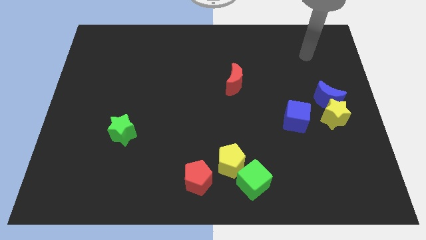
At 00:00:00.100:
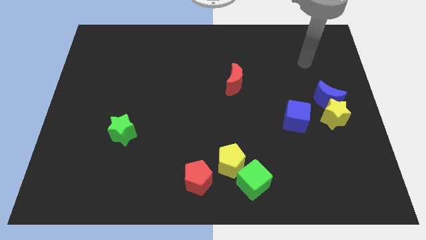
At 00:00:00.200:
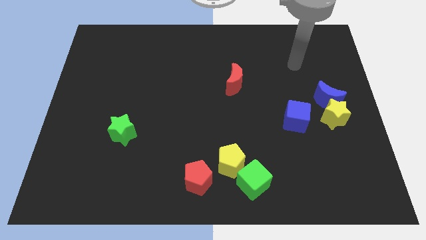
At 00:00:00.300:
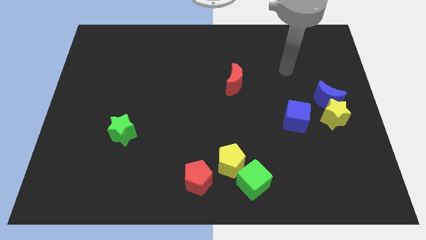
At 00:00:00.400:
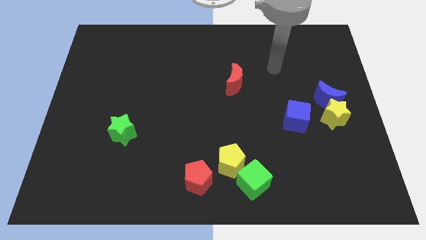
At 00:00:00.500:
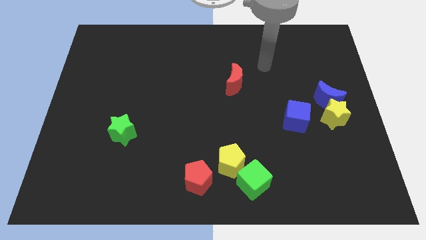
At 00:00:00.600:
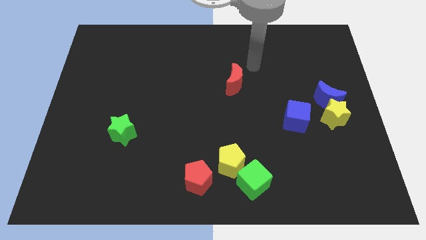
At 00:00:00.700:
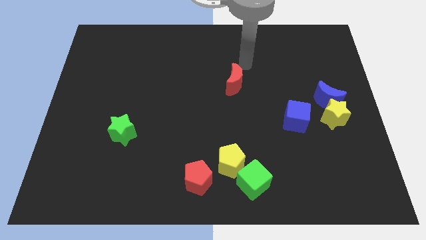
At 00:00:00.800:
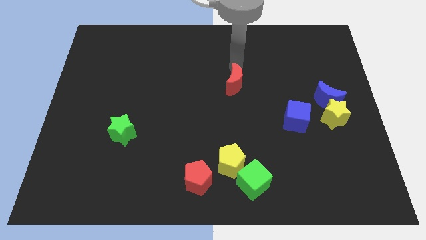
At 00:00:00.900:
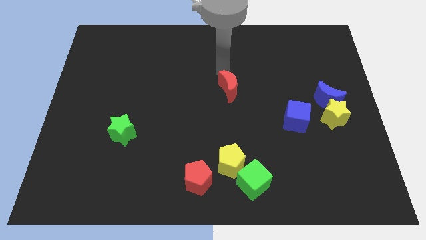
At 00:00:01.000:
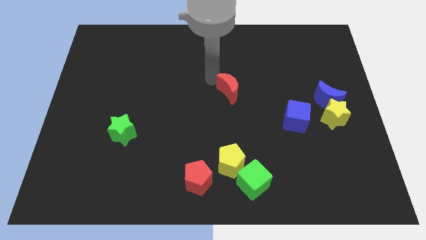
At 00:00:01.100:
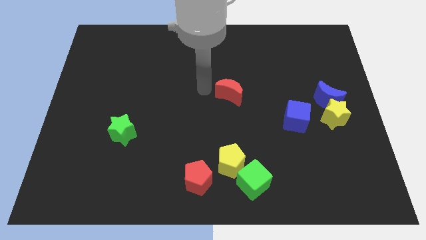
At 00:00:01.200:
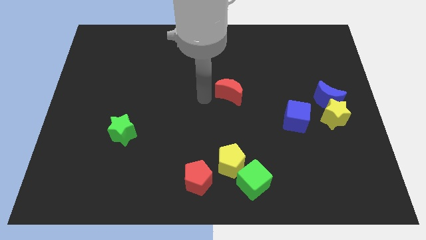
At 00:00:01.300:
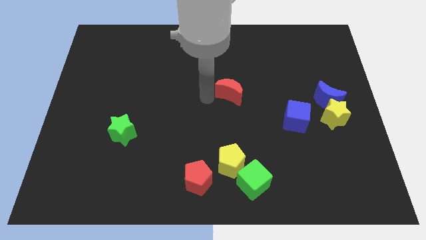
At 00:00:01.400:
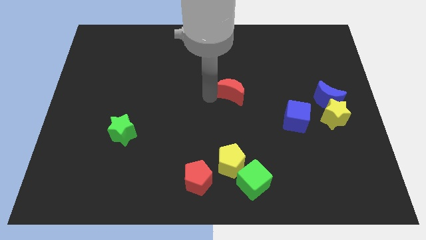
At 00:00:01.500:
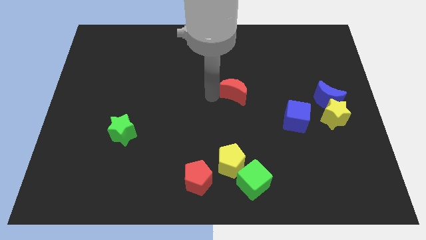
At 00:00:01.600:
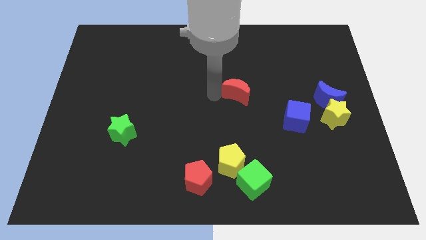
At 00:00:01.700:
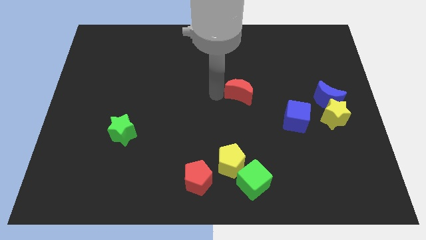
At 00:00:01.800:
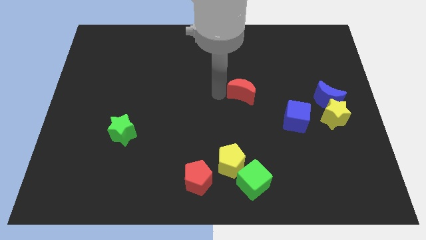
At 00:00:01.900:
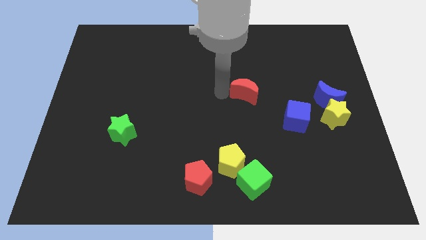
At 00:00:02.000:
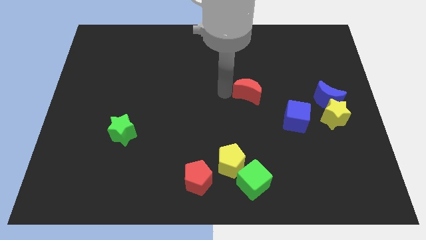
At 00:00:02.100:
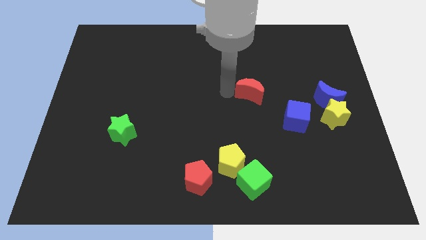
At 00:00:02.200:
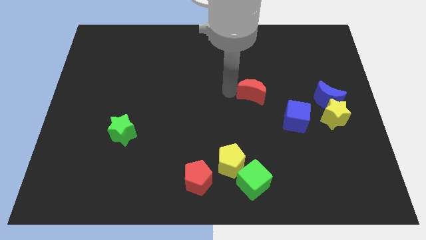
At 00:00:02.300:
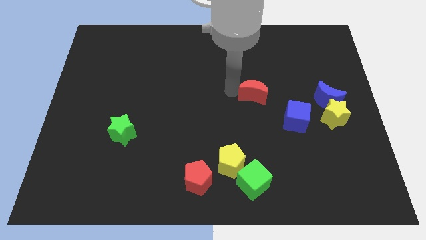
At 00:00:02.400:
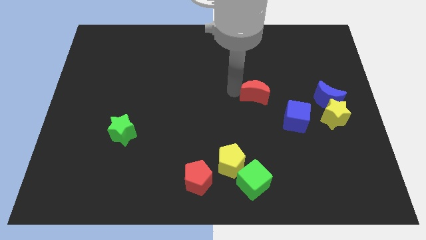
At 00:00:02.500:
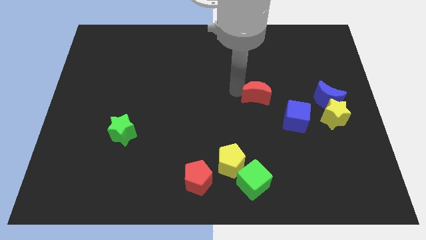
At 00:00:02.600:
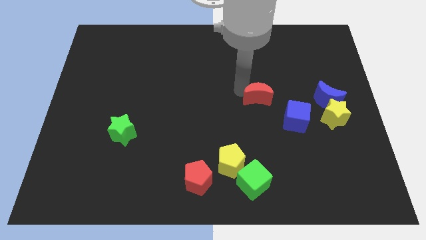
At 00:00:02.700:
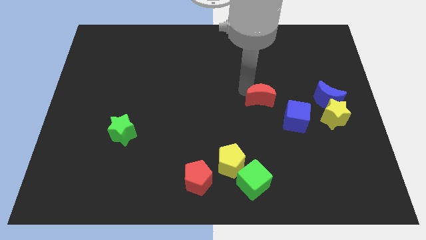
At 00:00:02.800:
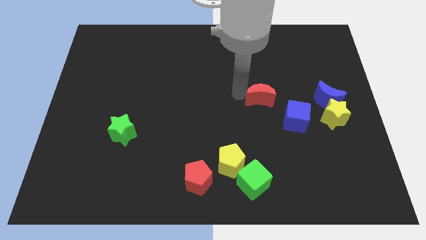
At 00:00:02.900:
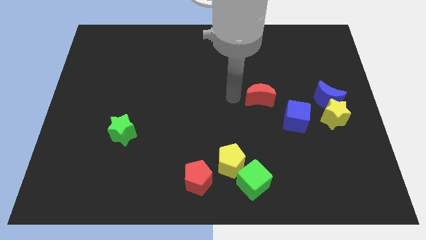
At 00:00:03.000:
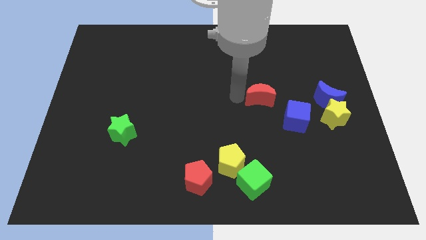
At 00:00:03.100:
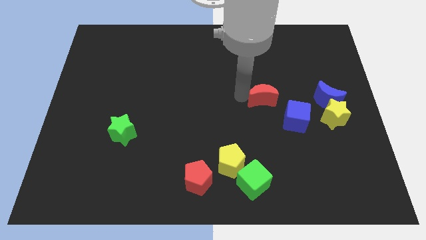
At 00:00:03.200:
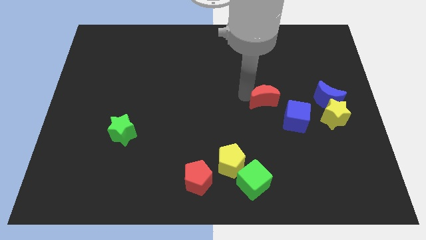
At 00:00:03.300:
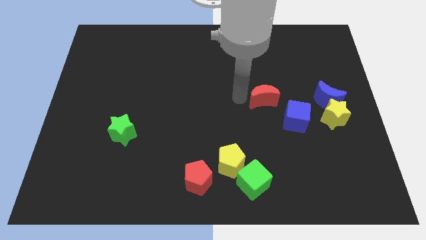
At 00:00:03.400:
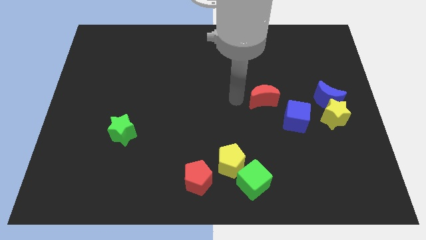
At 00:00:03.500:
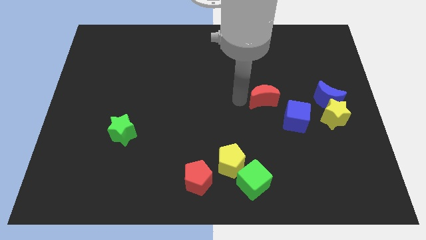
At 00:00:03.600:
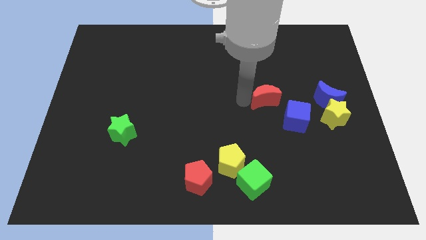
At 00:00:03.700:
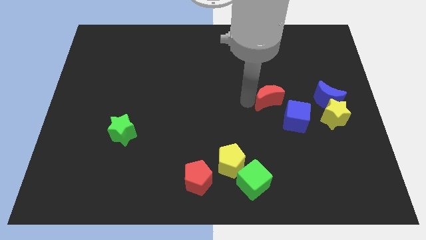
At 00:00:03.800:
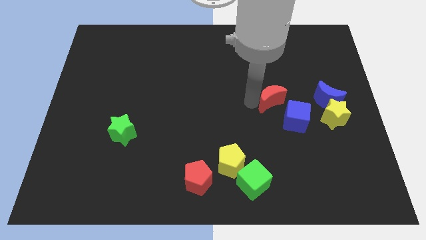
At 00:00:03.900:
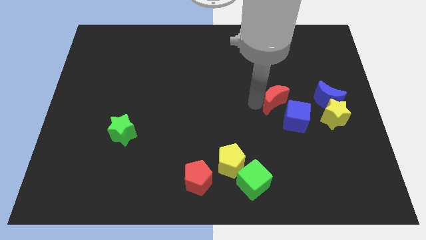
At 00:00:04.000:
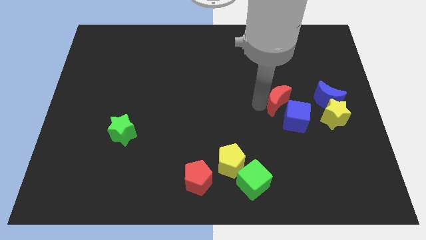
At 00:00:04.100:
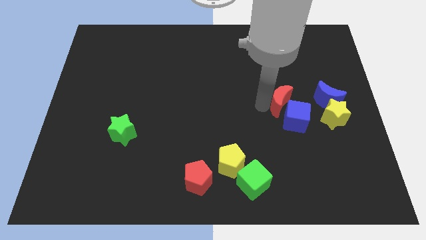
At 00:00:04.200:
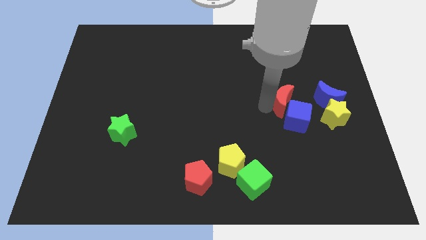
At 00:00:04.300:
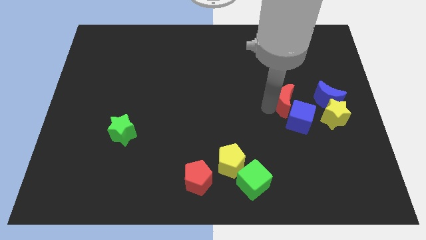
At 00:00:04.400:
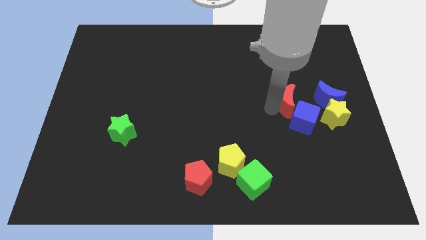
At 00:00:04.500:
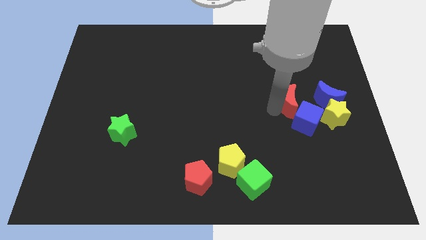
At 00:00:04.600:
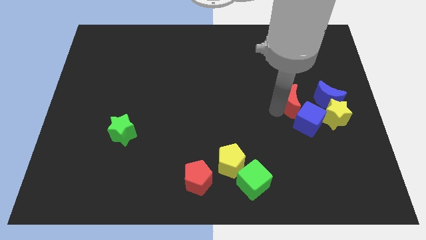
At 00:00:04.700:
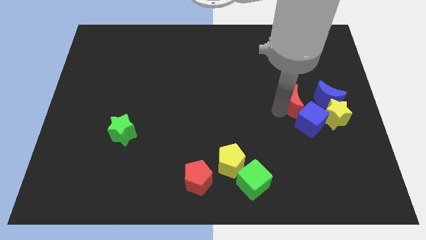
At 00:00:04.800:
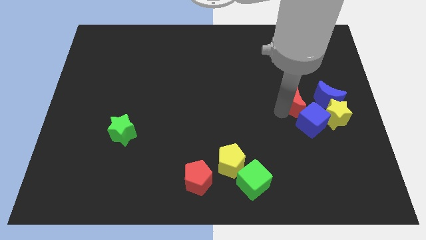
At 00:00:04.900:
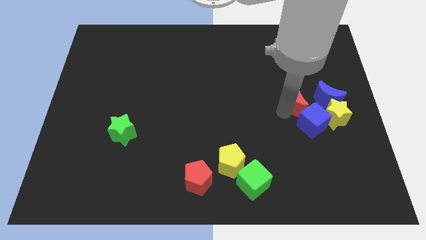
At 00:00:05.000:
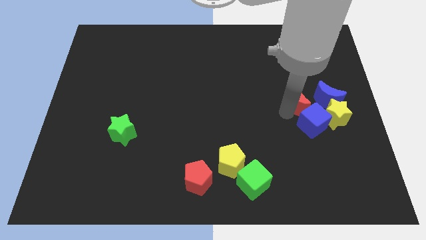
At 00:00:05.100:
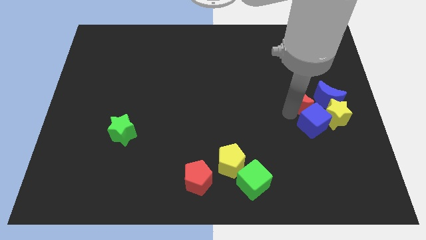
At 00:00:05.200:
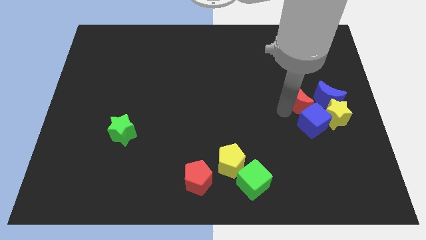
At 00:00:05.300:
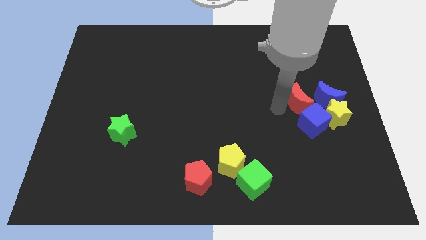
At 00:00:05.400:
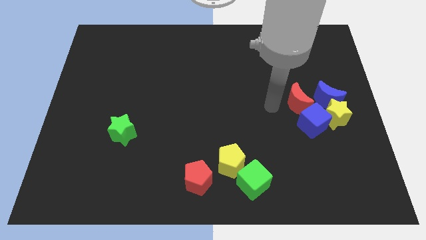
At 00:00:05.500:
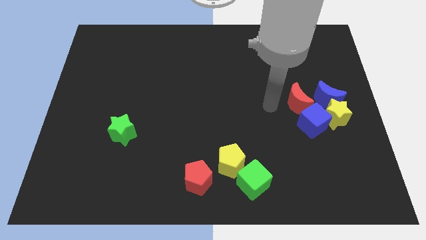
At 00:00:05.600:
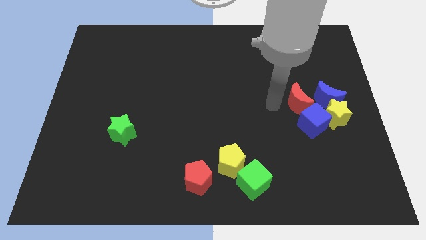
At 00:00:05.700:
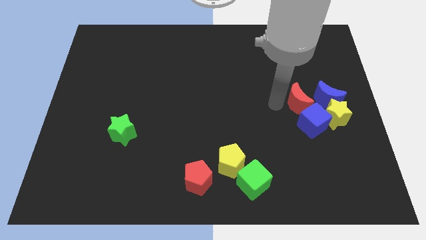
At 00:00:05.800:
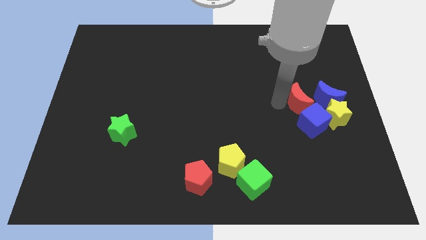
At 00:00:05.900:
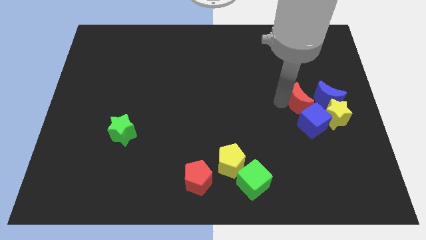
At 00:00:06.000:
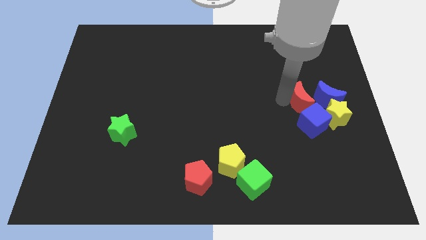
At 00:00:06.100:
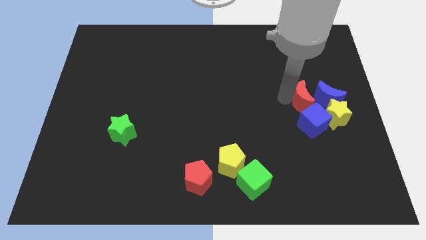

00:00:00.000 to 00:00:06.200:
put the red moon towards the blue moon
